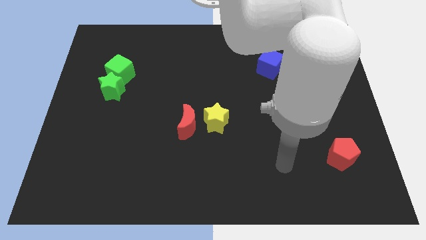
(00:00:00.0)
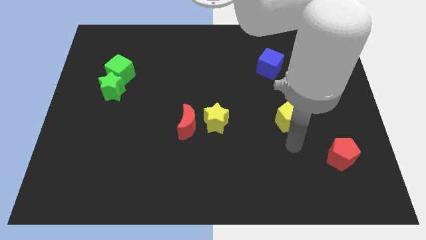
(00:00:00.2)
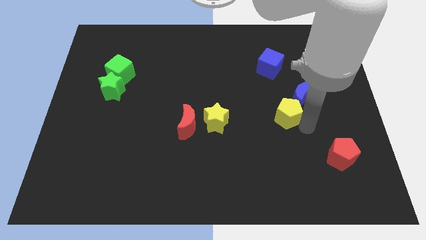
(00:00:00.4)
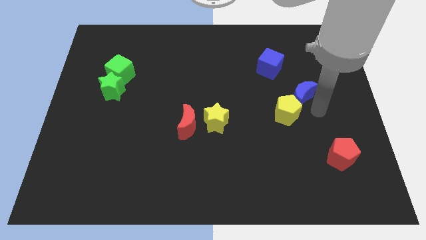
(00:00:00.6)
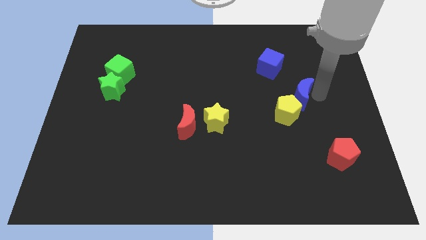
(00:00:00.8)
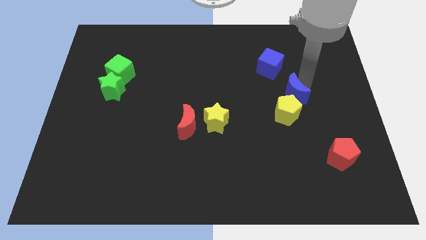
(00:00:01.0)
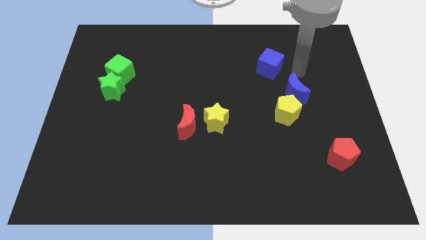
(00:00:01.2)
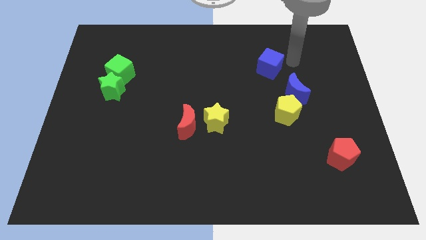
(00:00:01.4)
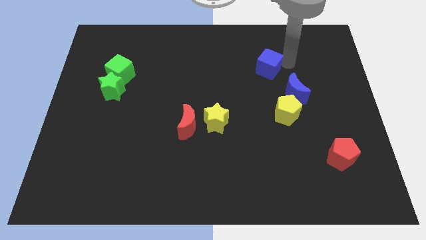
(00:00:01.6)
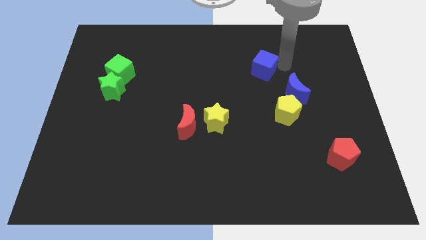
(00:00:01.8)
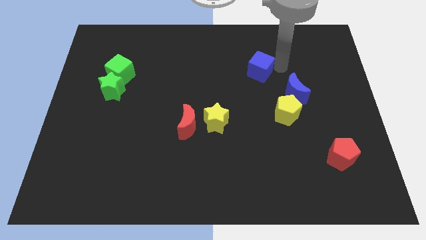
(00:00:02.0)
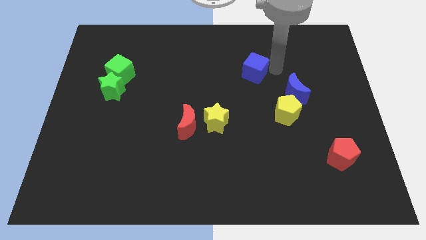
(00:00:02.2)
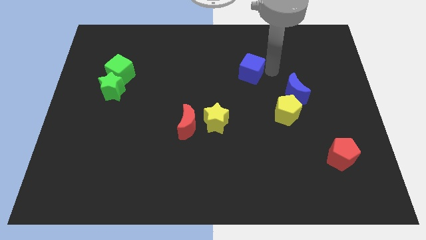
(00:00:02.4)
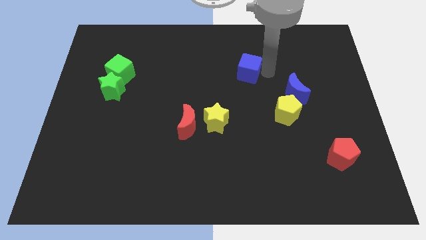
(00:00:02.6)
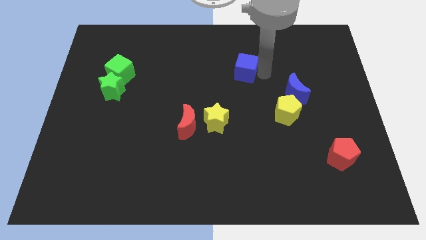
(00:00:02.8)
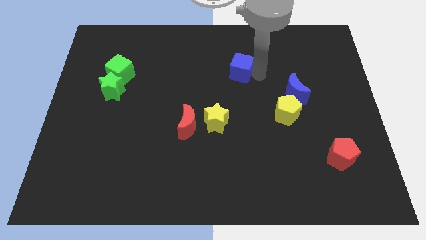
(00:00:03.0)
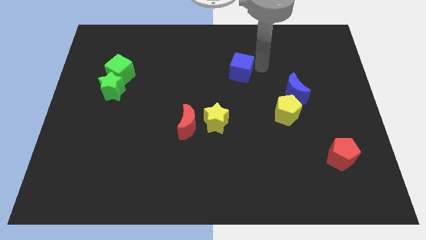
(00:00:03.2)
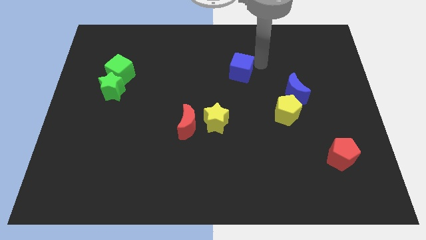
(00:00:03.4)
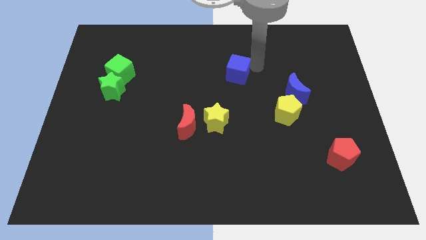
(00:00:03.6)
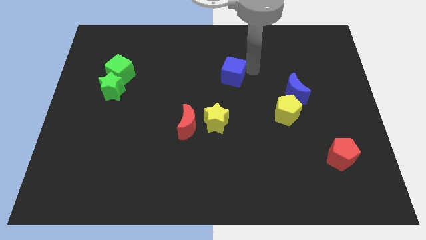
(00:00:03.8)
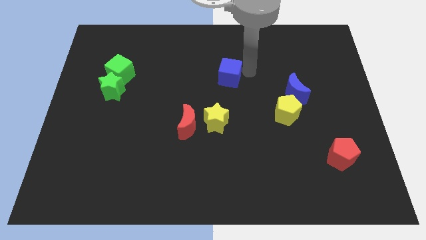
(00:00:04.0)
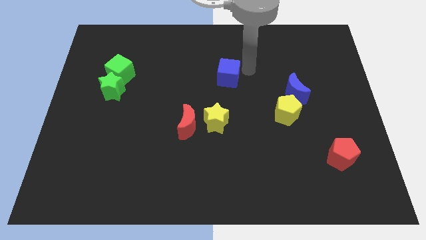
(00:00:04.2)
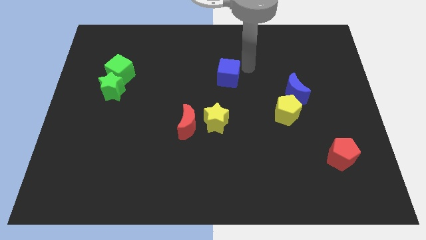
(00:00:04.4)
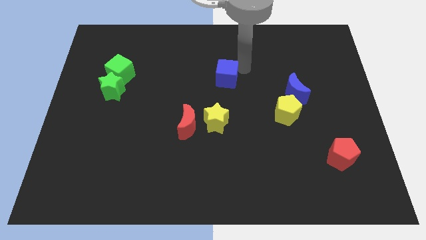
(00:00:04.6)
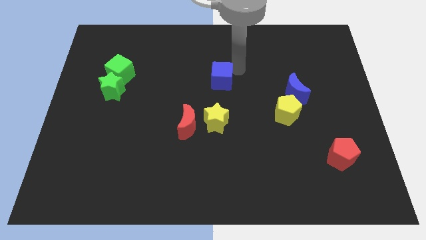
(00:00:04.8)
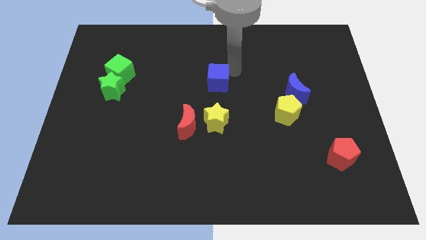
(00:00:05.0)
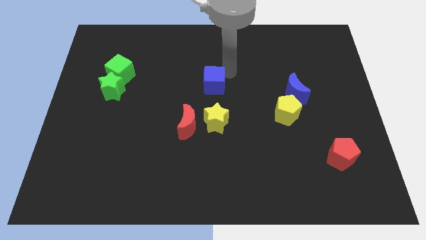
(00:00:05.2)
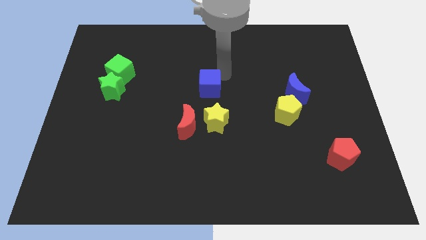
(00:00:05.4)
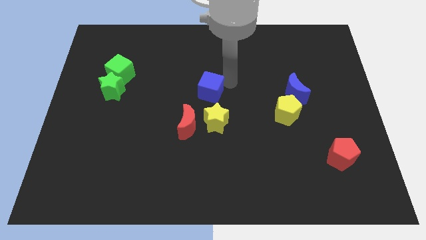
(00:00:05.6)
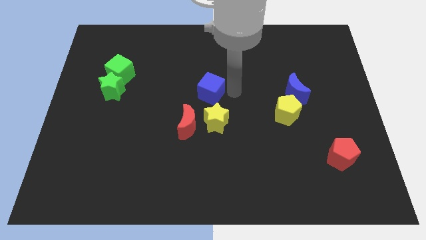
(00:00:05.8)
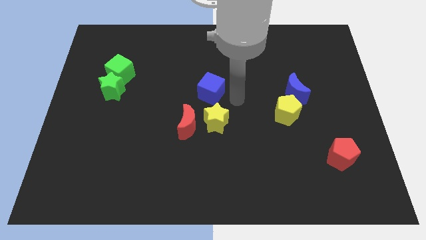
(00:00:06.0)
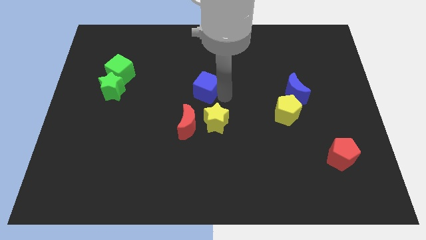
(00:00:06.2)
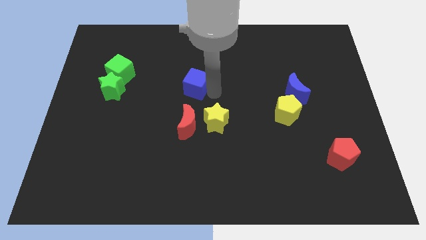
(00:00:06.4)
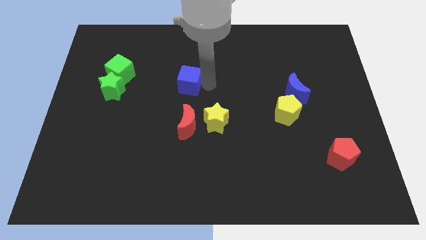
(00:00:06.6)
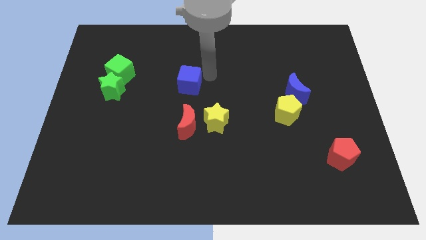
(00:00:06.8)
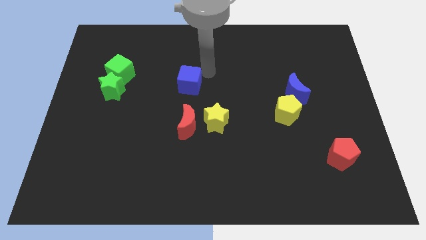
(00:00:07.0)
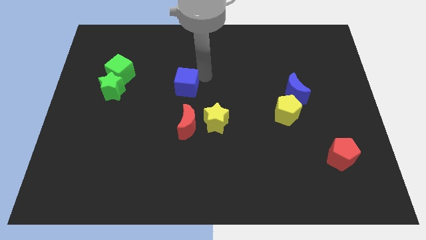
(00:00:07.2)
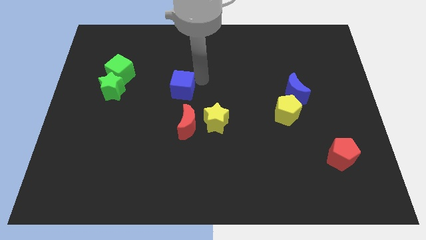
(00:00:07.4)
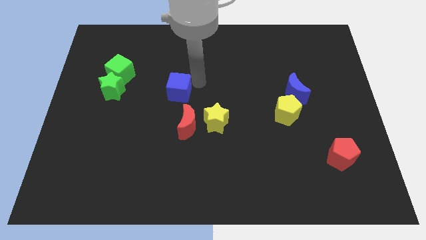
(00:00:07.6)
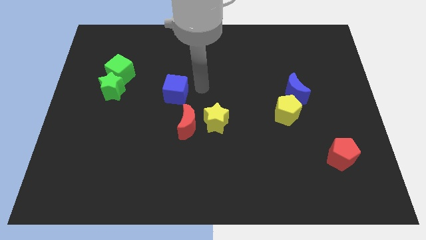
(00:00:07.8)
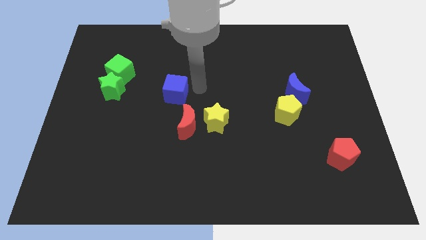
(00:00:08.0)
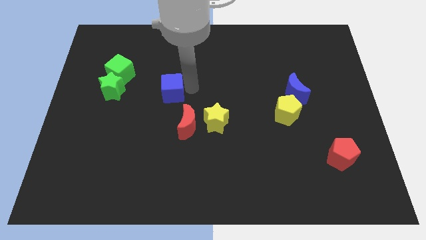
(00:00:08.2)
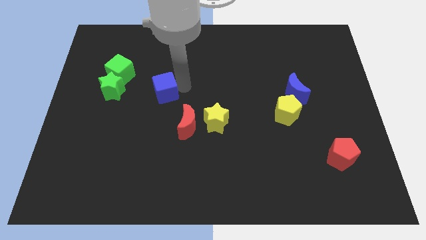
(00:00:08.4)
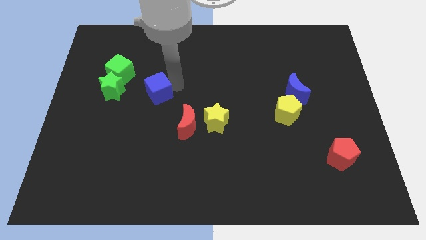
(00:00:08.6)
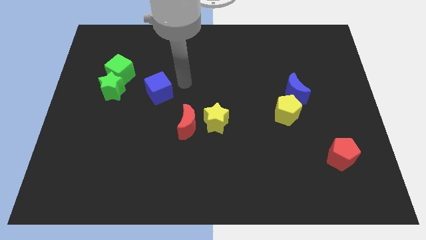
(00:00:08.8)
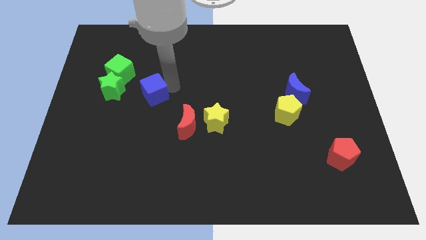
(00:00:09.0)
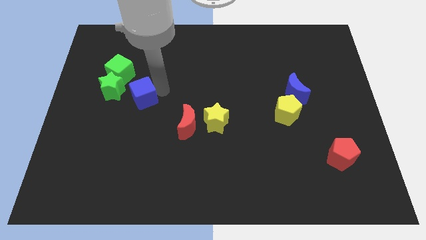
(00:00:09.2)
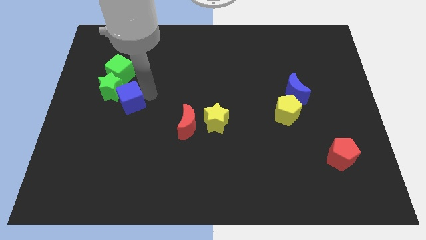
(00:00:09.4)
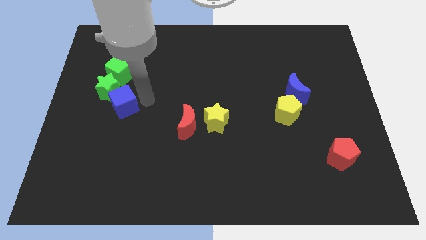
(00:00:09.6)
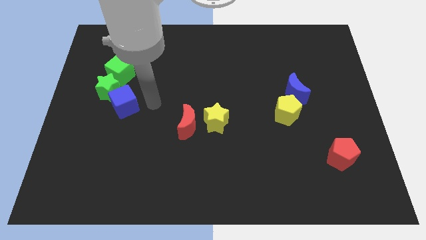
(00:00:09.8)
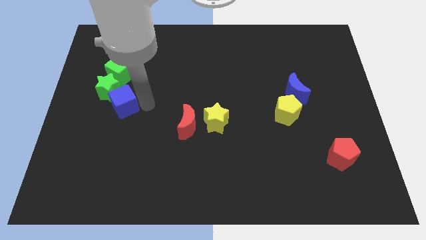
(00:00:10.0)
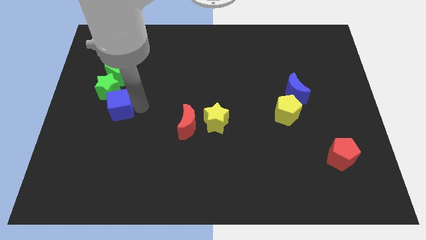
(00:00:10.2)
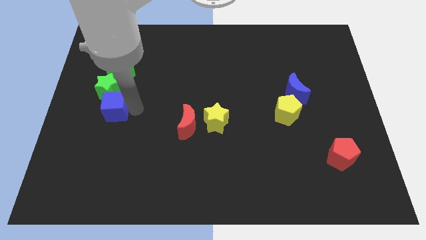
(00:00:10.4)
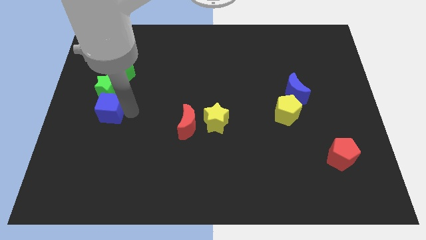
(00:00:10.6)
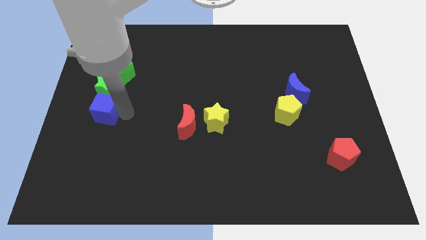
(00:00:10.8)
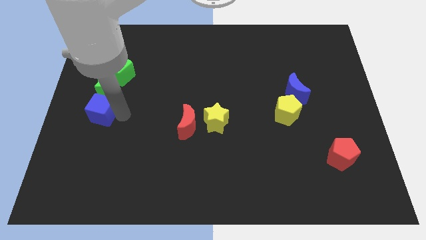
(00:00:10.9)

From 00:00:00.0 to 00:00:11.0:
slide the blue cube to the left side of the board

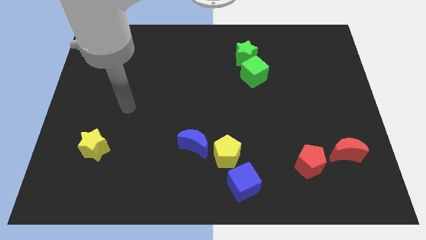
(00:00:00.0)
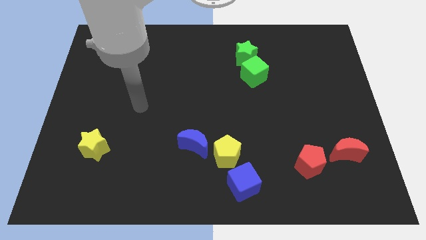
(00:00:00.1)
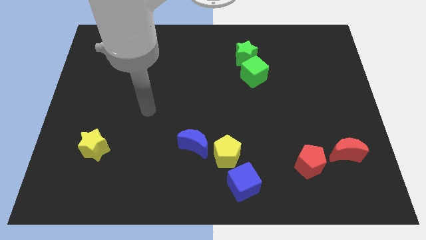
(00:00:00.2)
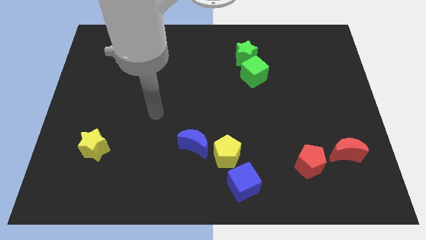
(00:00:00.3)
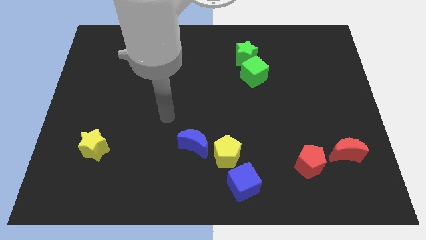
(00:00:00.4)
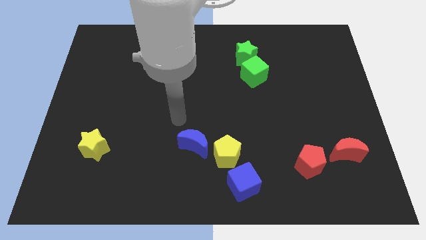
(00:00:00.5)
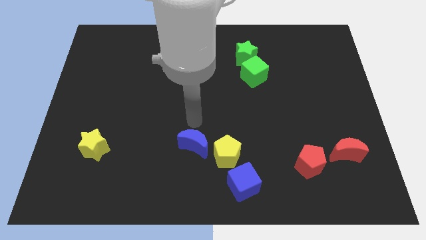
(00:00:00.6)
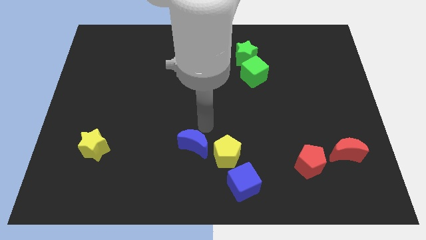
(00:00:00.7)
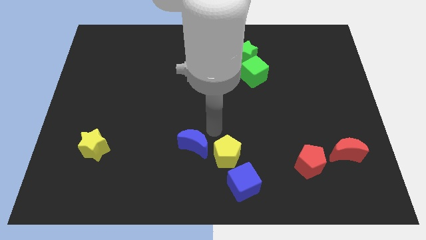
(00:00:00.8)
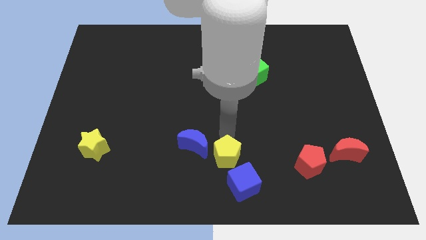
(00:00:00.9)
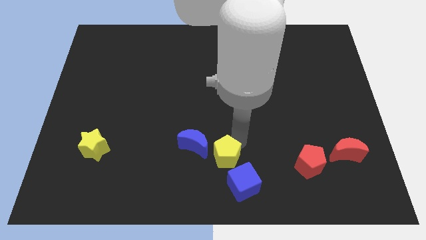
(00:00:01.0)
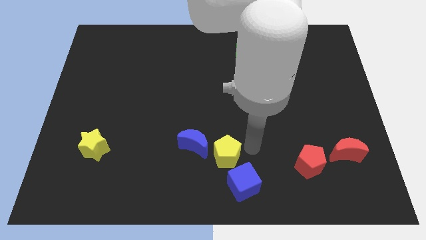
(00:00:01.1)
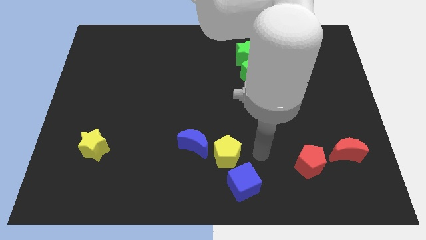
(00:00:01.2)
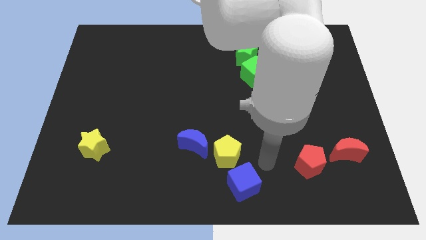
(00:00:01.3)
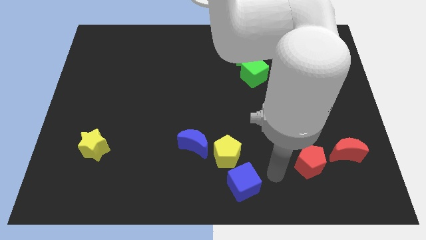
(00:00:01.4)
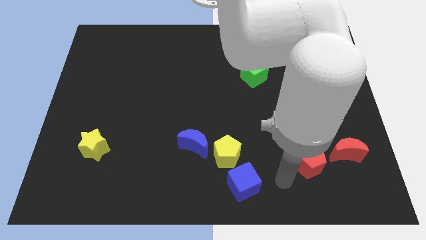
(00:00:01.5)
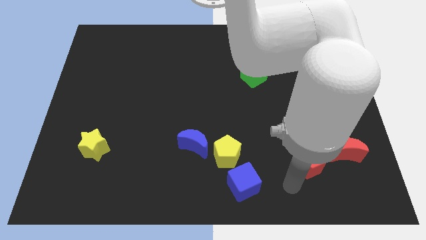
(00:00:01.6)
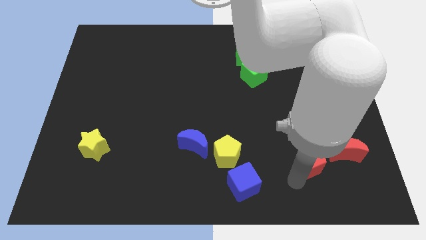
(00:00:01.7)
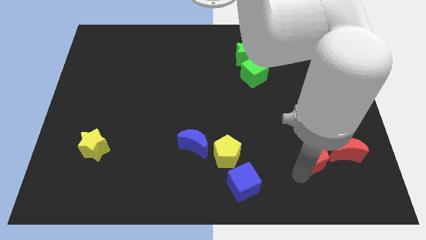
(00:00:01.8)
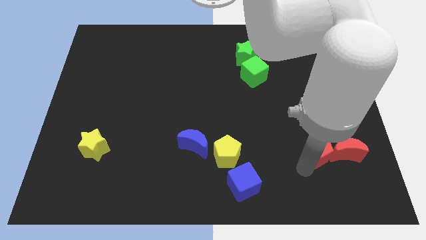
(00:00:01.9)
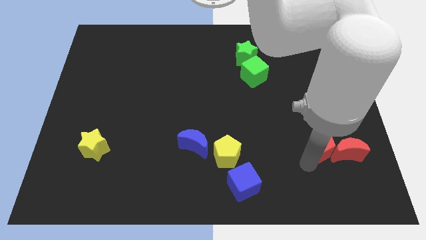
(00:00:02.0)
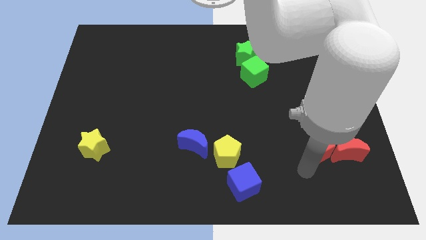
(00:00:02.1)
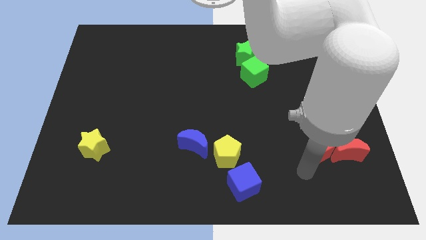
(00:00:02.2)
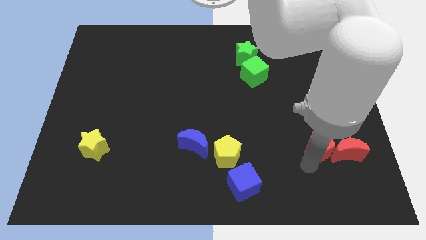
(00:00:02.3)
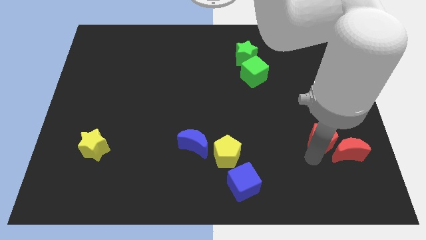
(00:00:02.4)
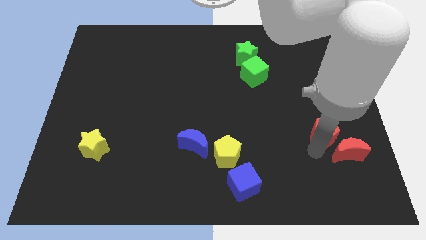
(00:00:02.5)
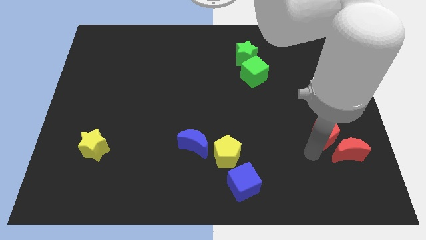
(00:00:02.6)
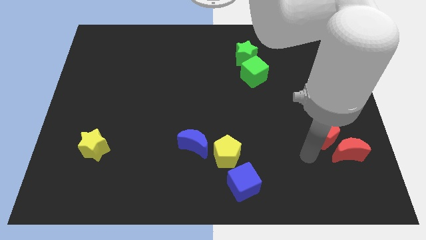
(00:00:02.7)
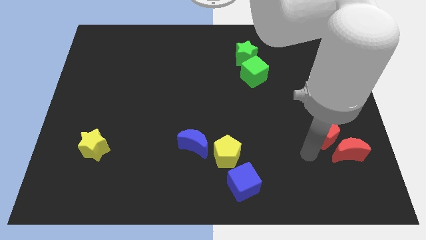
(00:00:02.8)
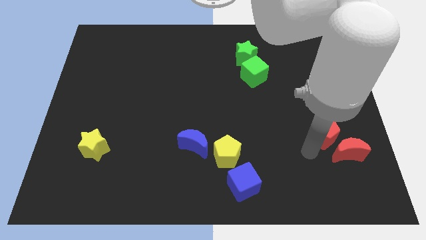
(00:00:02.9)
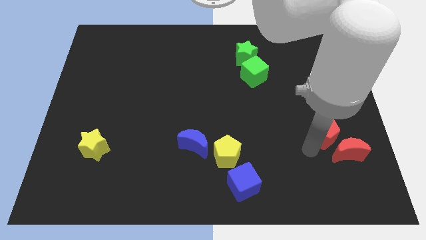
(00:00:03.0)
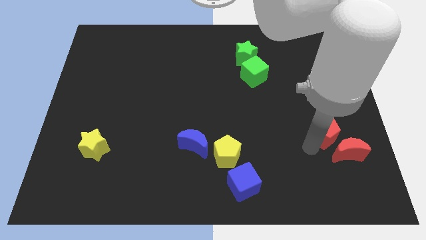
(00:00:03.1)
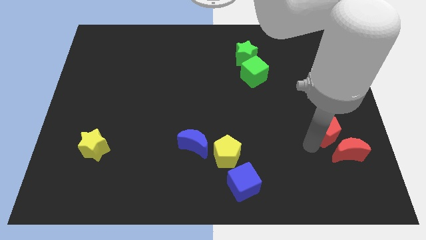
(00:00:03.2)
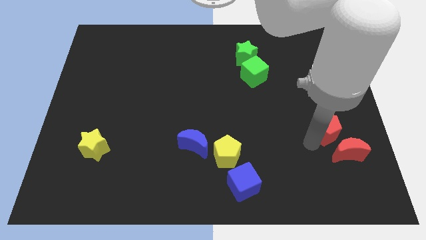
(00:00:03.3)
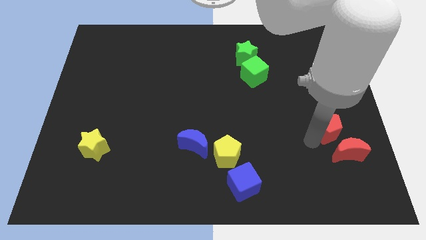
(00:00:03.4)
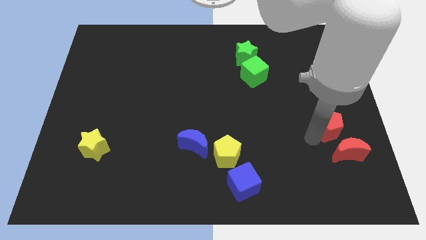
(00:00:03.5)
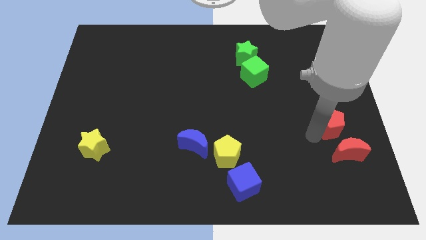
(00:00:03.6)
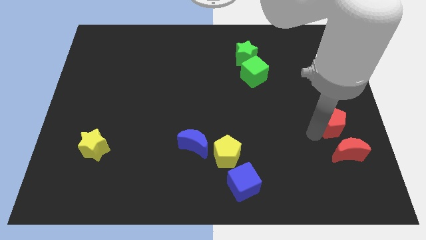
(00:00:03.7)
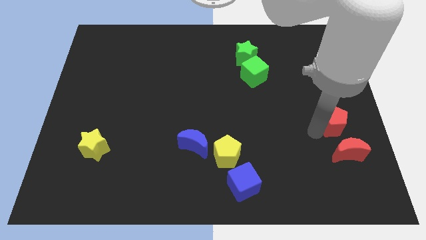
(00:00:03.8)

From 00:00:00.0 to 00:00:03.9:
slide the red pentagon to the right side of the board
